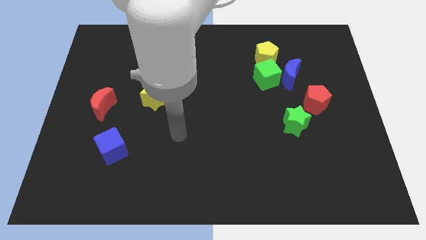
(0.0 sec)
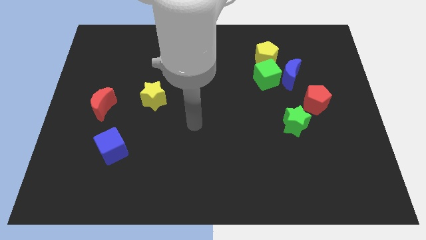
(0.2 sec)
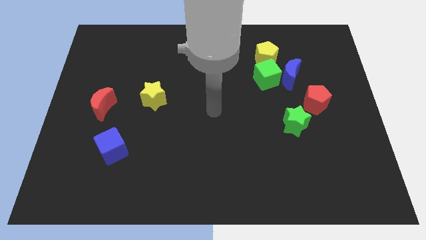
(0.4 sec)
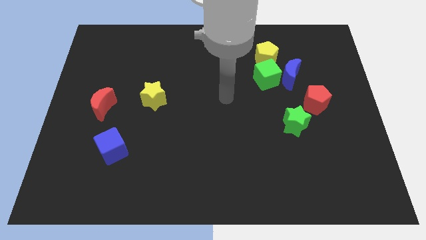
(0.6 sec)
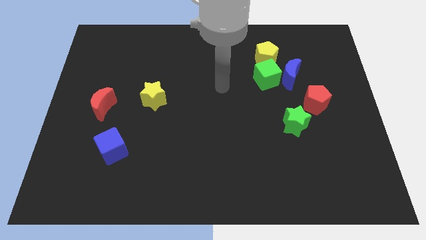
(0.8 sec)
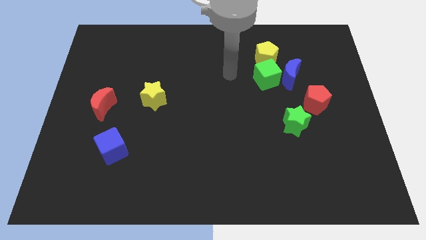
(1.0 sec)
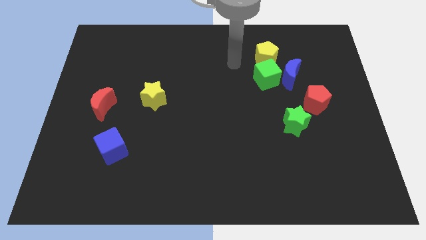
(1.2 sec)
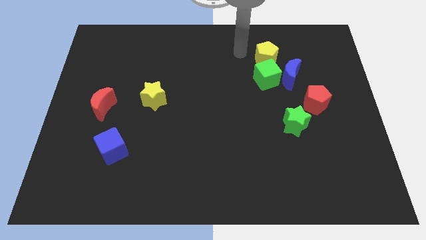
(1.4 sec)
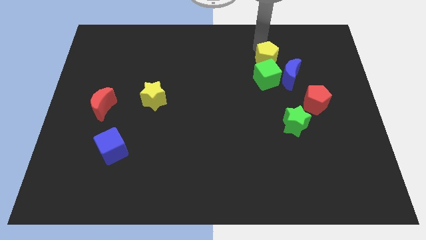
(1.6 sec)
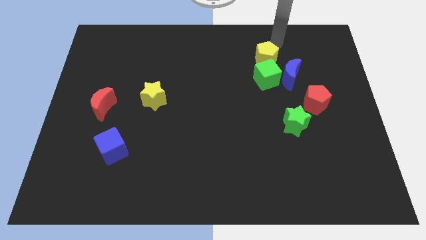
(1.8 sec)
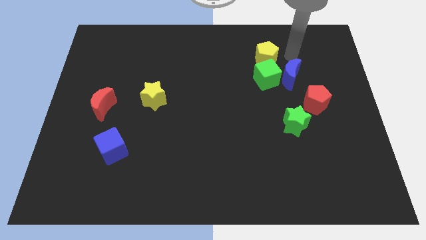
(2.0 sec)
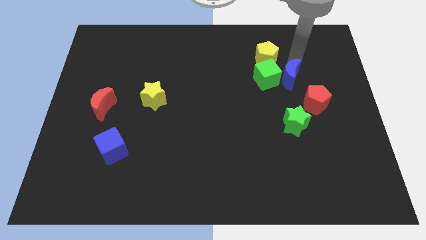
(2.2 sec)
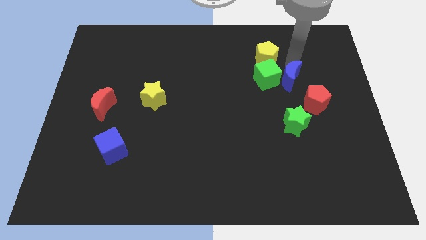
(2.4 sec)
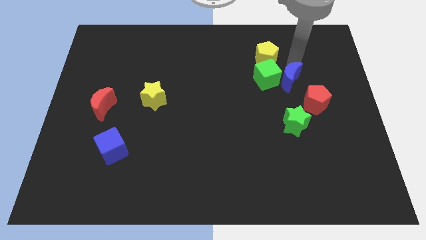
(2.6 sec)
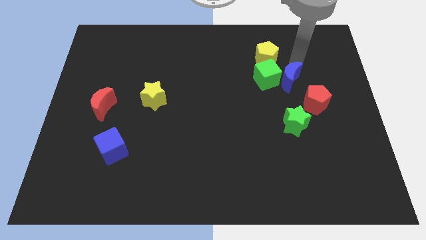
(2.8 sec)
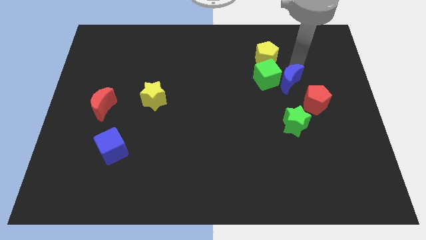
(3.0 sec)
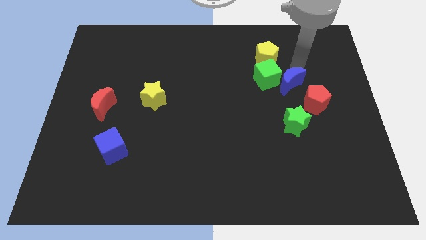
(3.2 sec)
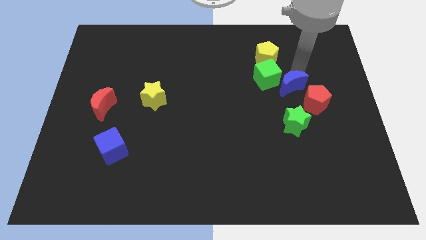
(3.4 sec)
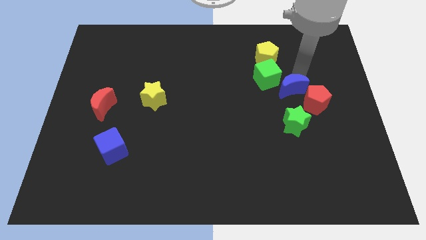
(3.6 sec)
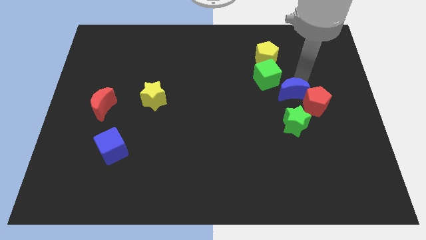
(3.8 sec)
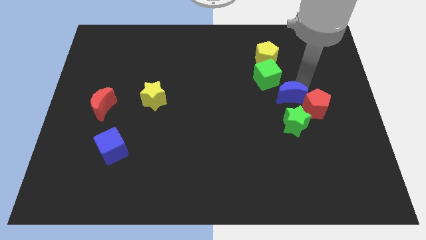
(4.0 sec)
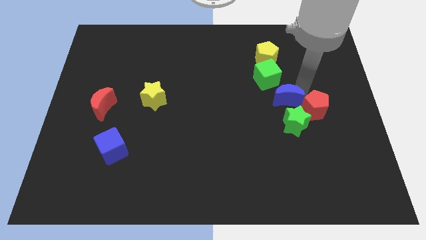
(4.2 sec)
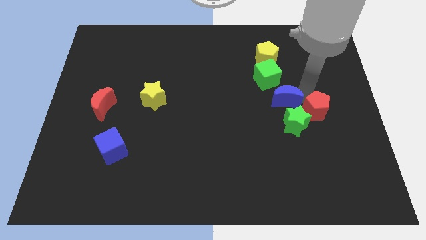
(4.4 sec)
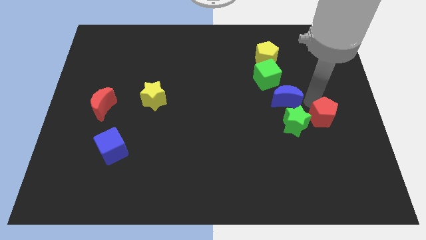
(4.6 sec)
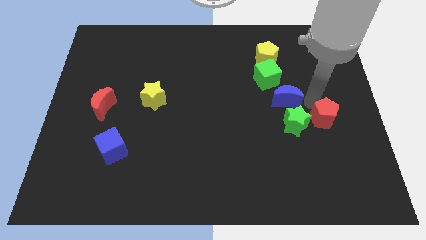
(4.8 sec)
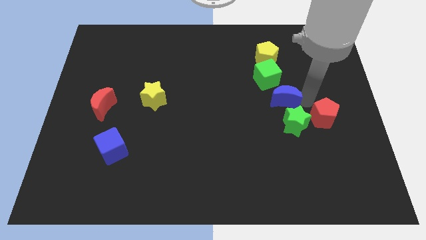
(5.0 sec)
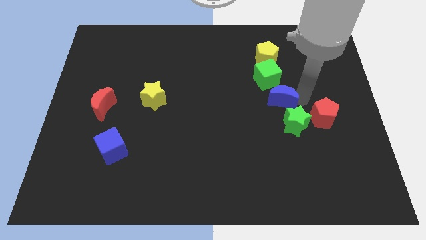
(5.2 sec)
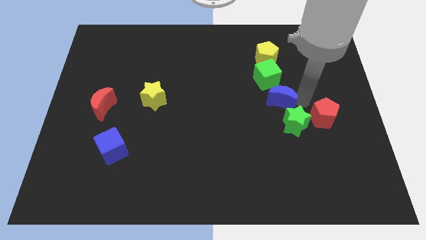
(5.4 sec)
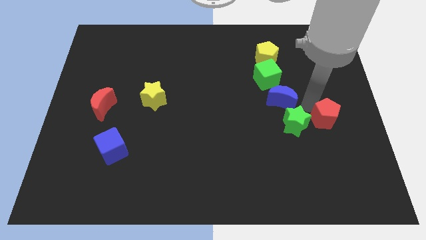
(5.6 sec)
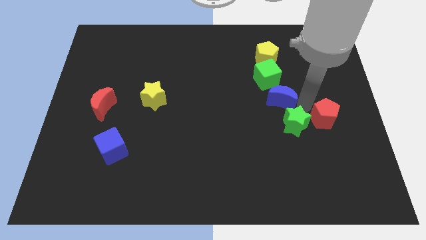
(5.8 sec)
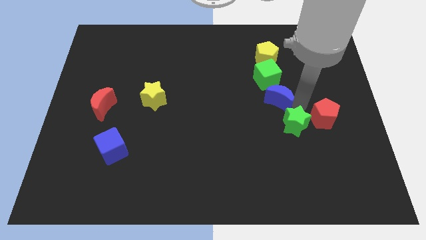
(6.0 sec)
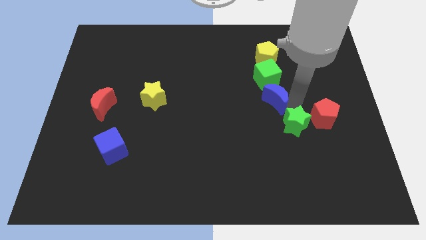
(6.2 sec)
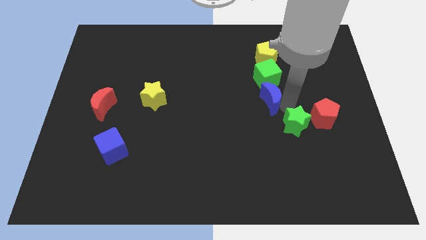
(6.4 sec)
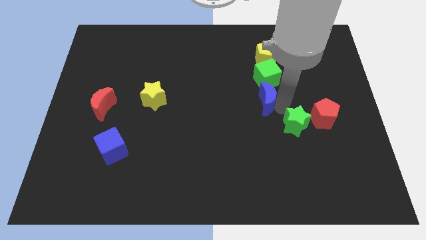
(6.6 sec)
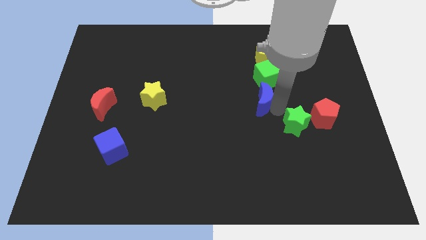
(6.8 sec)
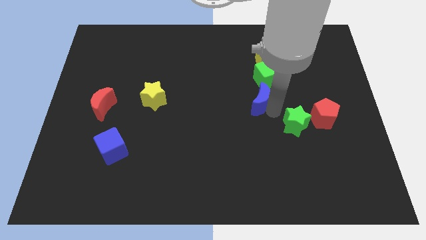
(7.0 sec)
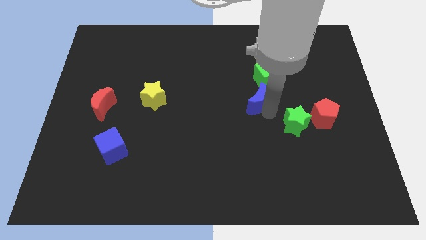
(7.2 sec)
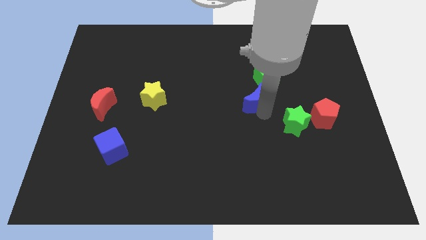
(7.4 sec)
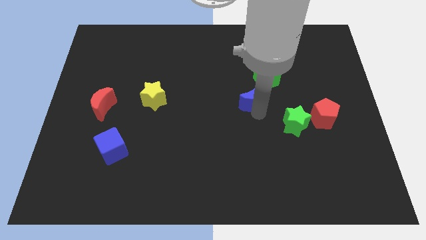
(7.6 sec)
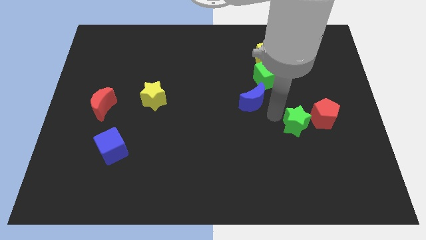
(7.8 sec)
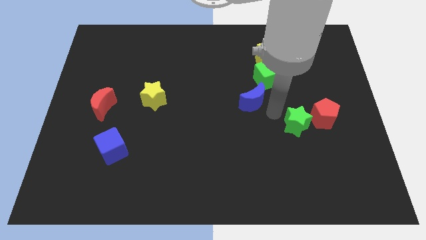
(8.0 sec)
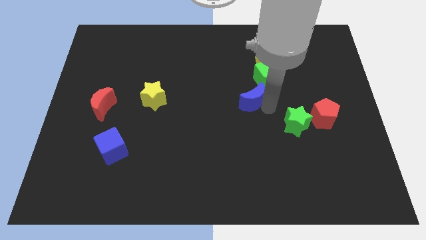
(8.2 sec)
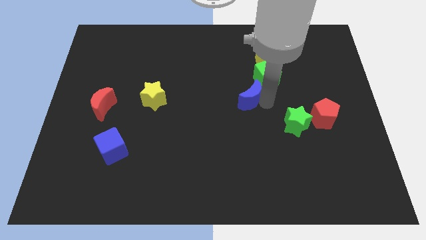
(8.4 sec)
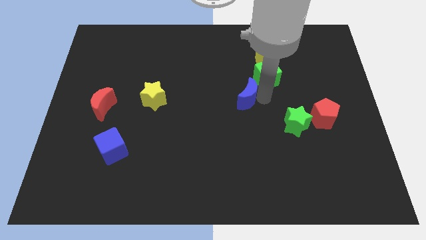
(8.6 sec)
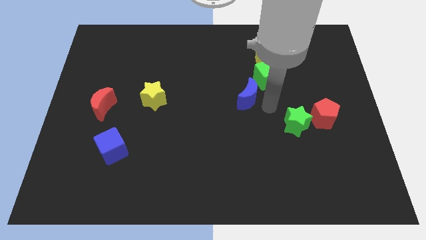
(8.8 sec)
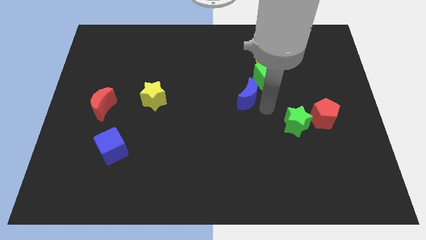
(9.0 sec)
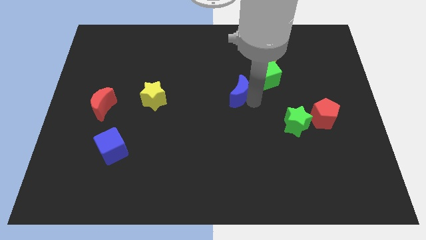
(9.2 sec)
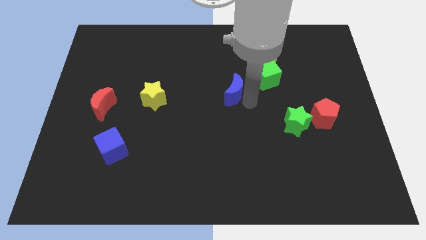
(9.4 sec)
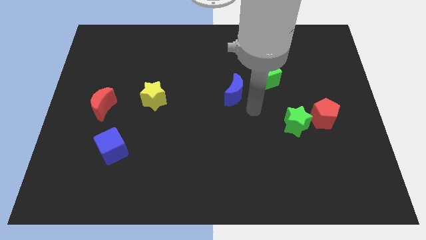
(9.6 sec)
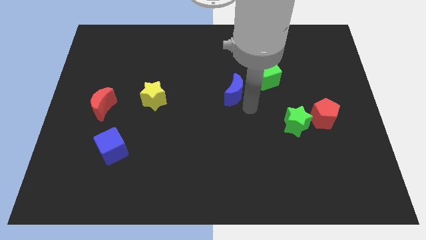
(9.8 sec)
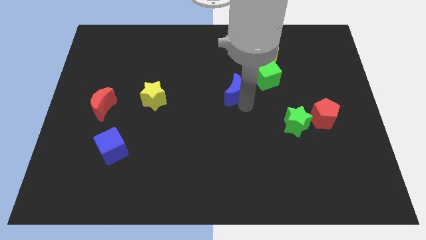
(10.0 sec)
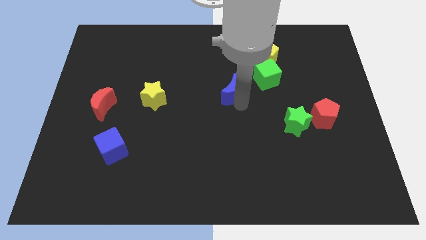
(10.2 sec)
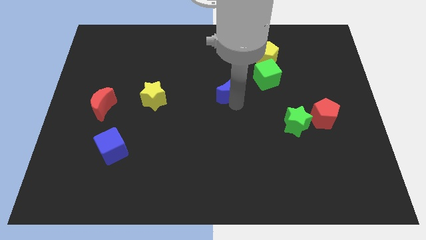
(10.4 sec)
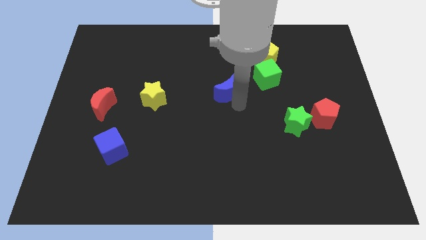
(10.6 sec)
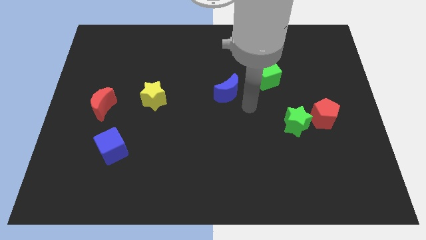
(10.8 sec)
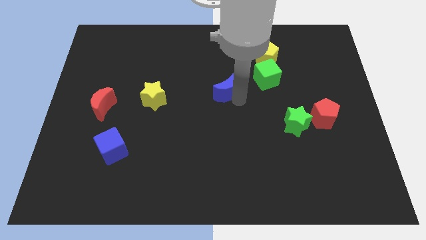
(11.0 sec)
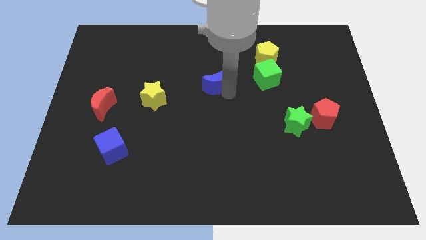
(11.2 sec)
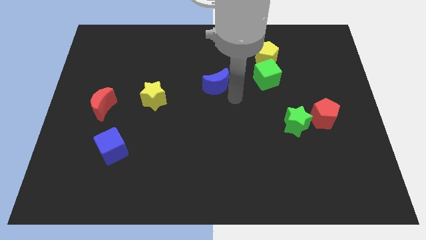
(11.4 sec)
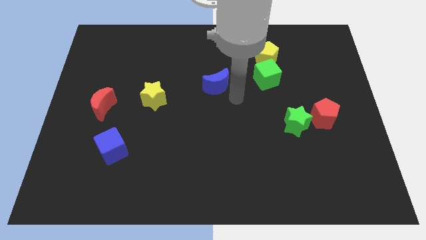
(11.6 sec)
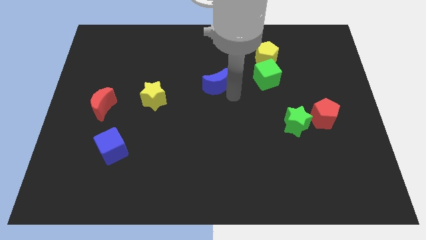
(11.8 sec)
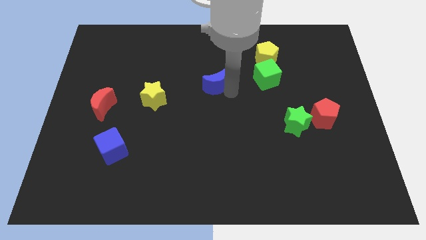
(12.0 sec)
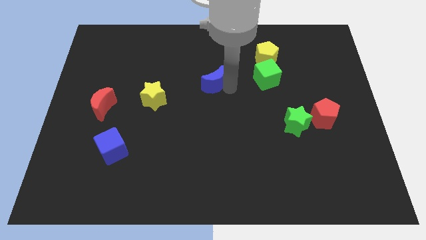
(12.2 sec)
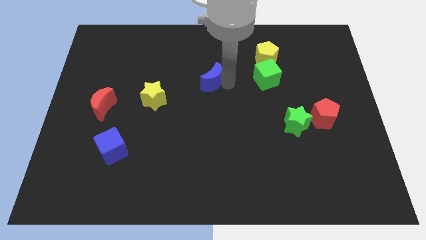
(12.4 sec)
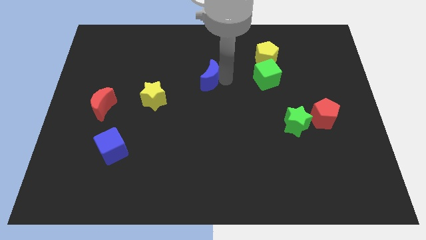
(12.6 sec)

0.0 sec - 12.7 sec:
push the blue moon left

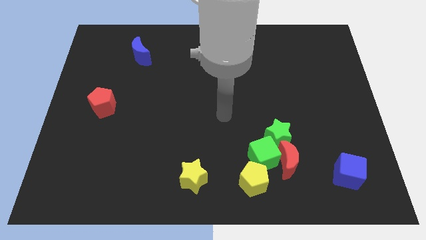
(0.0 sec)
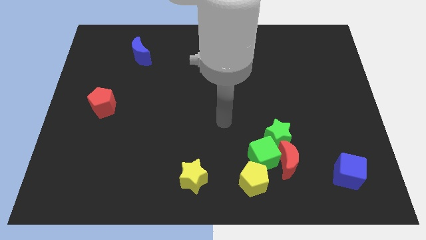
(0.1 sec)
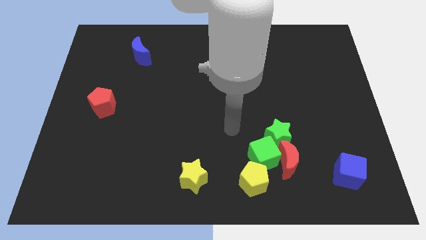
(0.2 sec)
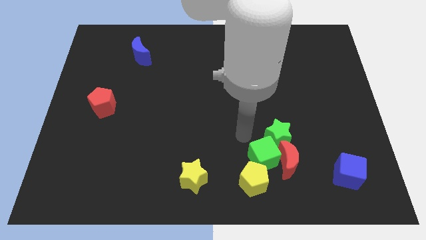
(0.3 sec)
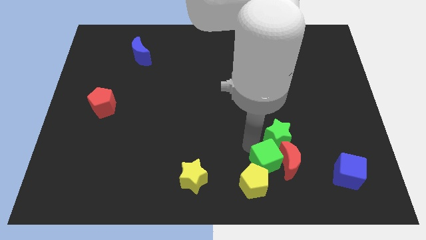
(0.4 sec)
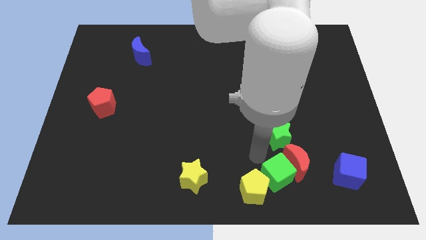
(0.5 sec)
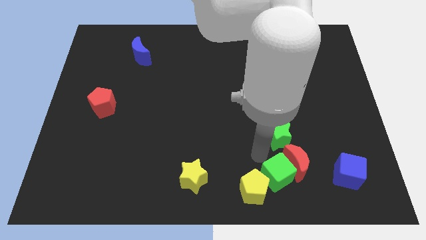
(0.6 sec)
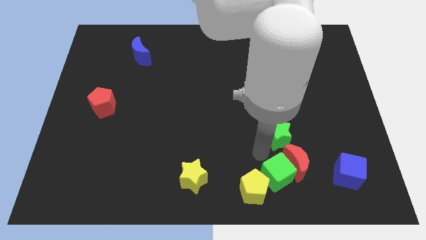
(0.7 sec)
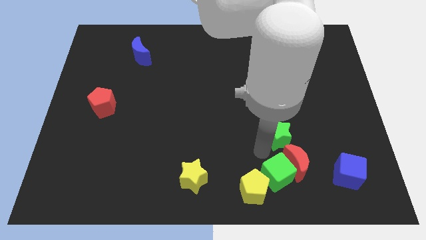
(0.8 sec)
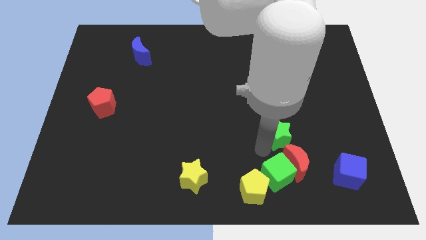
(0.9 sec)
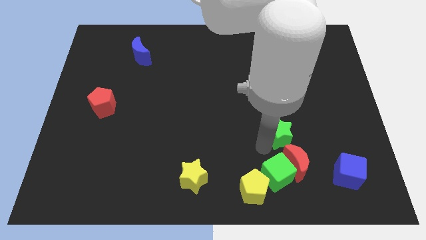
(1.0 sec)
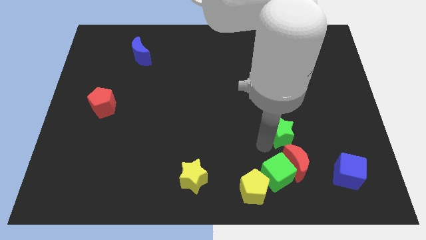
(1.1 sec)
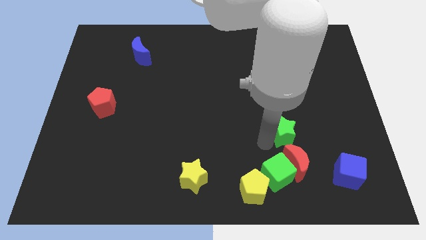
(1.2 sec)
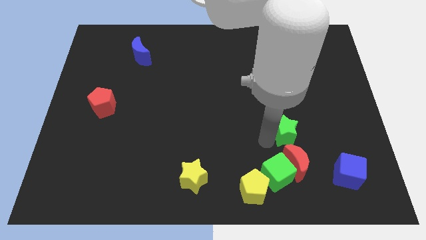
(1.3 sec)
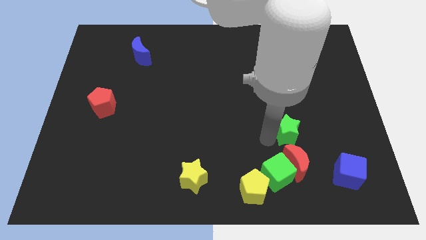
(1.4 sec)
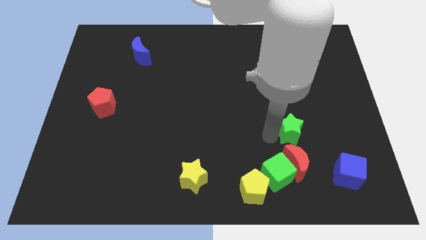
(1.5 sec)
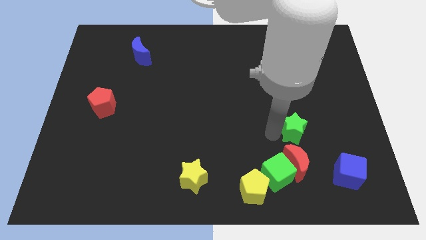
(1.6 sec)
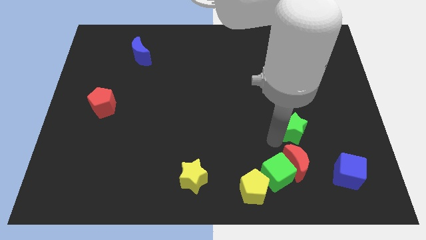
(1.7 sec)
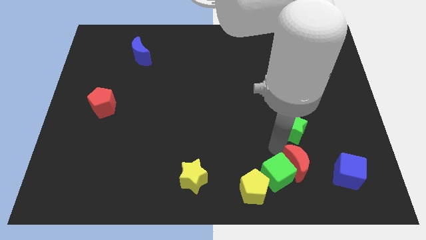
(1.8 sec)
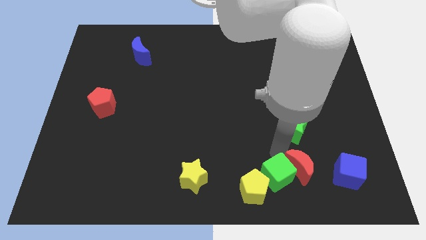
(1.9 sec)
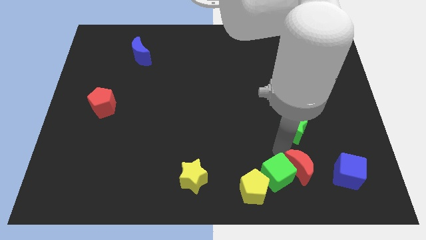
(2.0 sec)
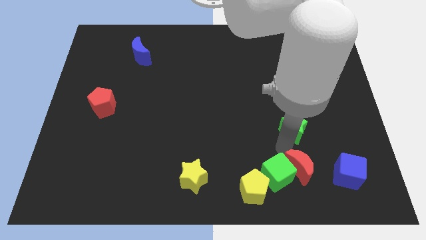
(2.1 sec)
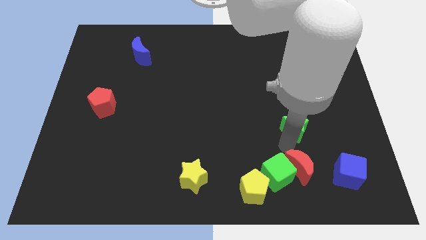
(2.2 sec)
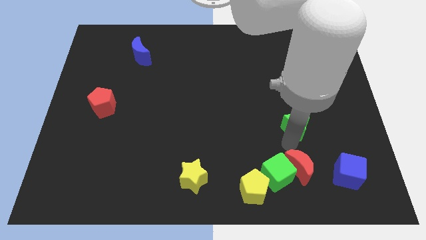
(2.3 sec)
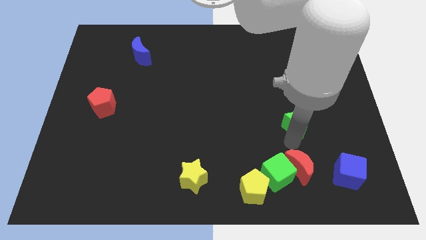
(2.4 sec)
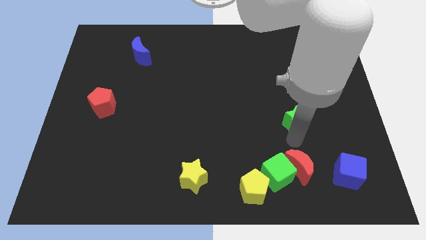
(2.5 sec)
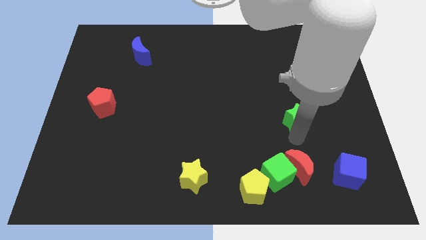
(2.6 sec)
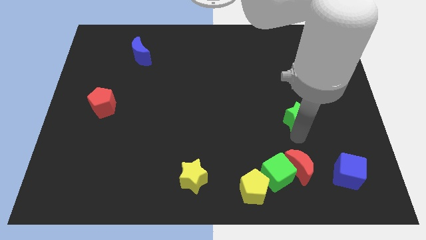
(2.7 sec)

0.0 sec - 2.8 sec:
push the green star diagonally up and to the right a little bit
